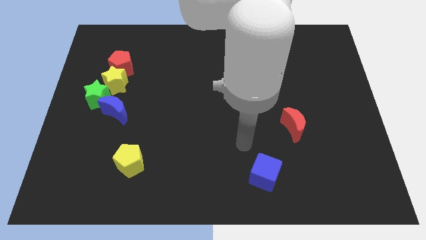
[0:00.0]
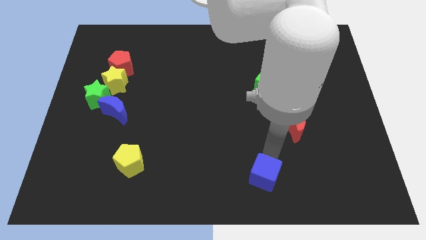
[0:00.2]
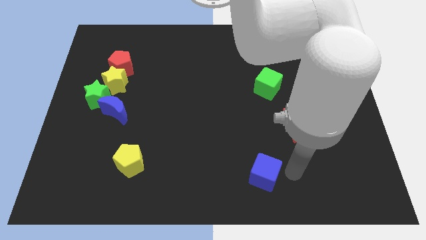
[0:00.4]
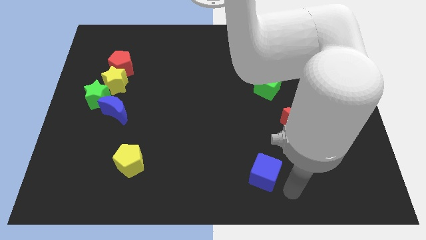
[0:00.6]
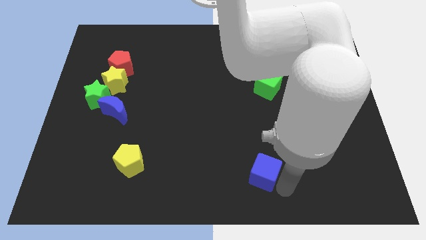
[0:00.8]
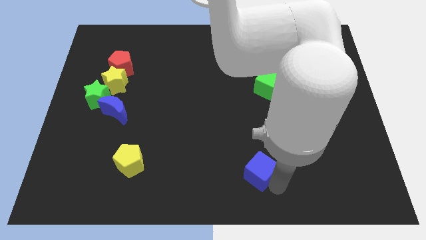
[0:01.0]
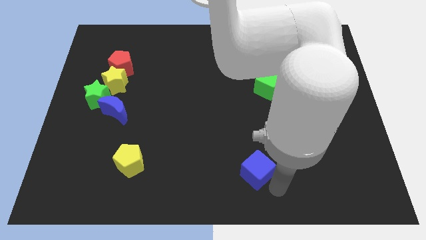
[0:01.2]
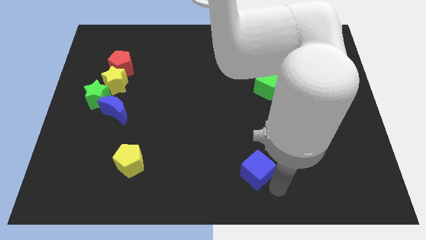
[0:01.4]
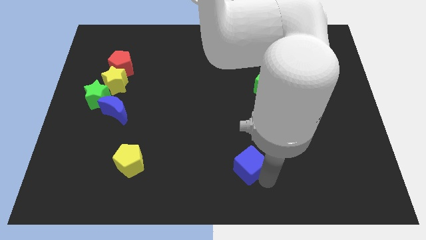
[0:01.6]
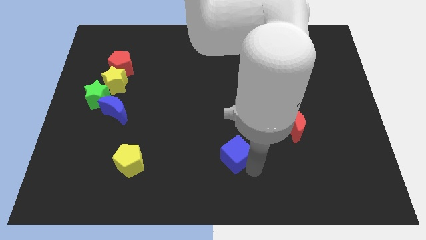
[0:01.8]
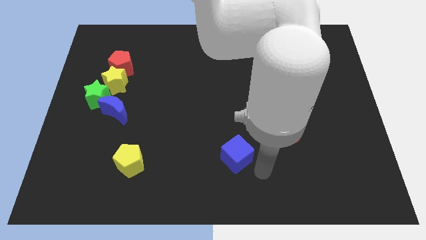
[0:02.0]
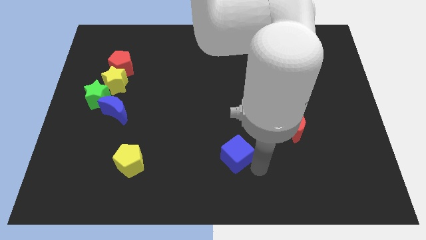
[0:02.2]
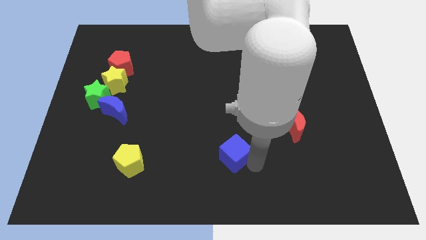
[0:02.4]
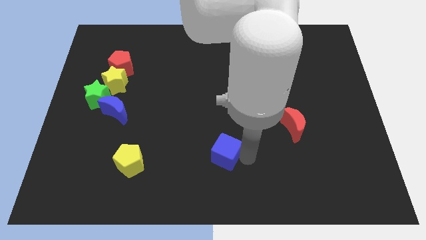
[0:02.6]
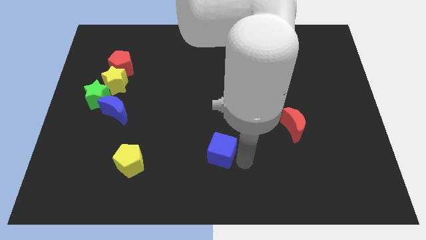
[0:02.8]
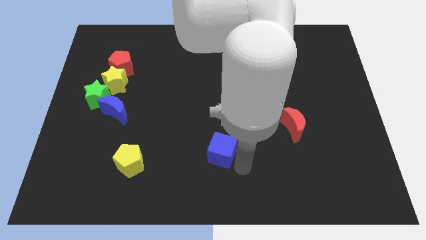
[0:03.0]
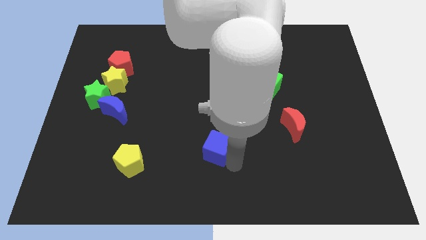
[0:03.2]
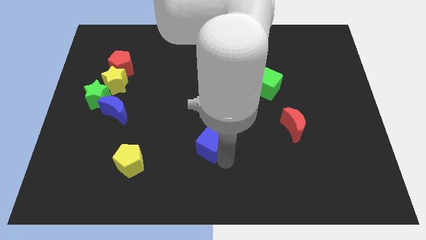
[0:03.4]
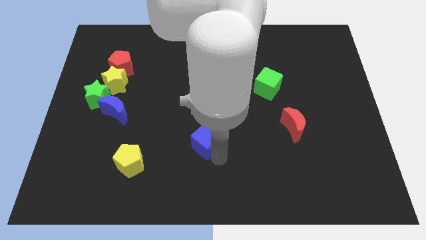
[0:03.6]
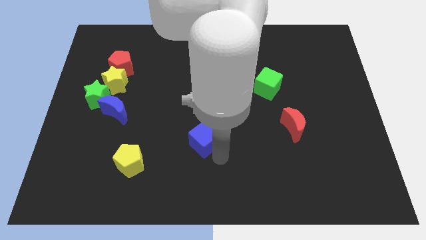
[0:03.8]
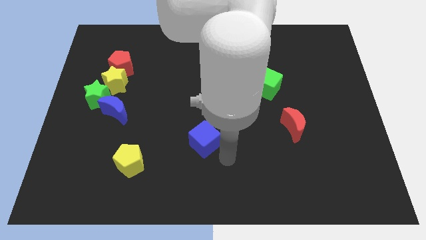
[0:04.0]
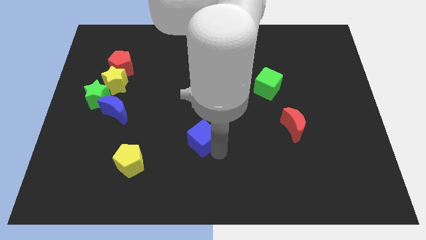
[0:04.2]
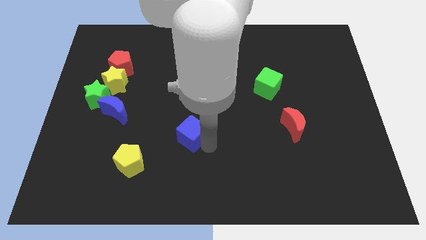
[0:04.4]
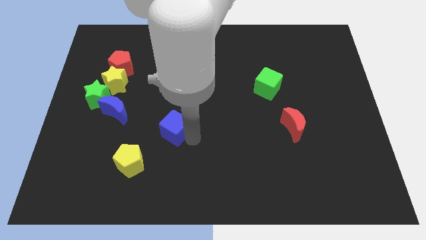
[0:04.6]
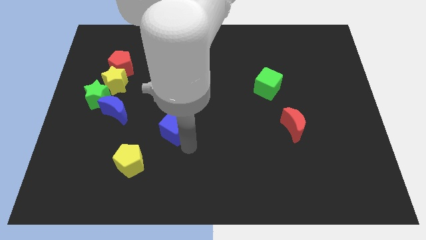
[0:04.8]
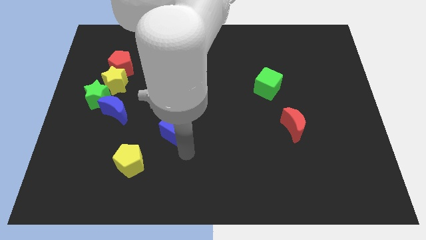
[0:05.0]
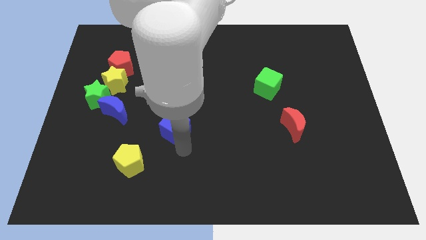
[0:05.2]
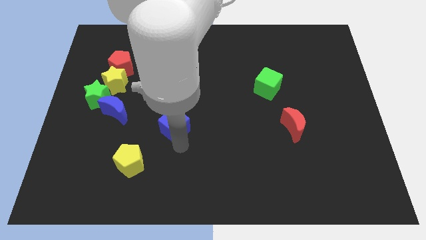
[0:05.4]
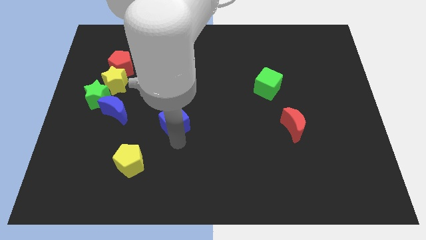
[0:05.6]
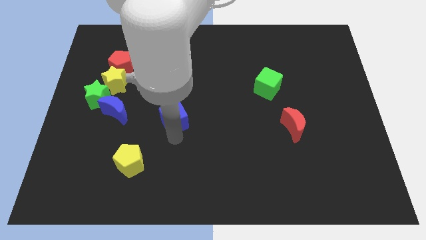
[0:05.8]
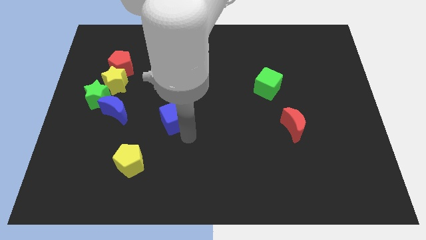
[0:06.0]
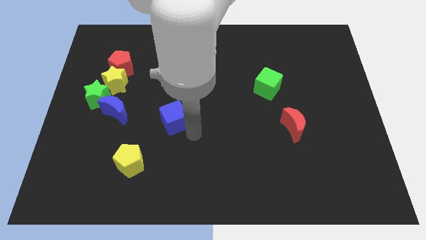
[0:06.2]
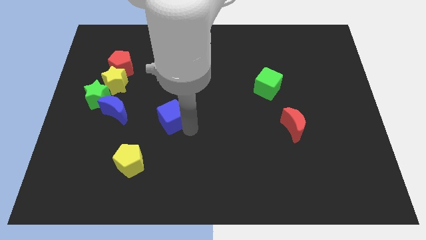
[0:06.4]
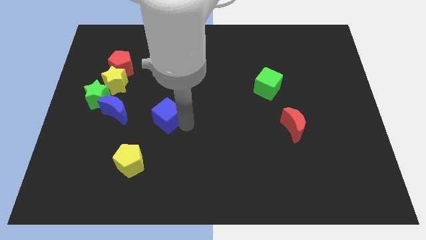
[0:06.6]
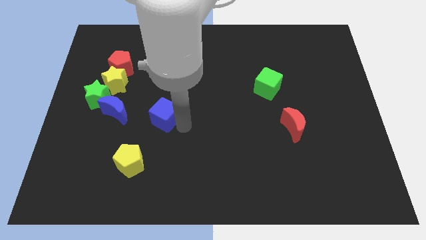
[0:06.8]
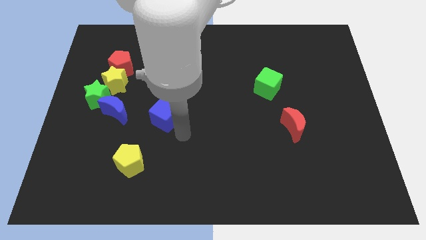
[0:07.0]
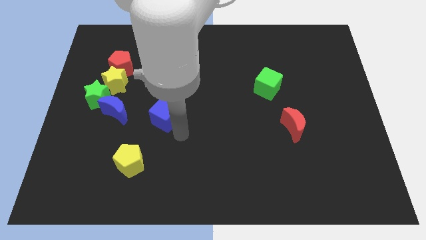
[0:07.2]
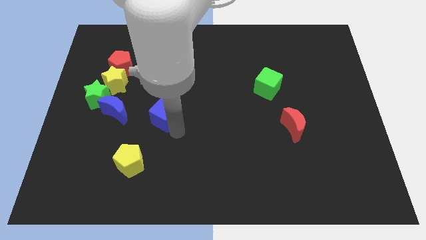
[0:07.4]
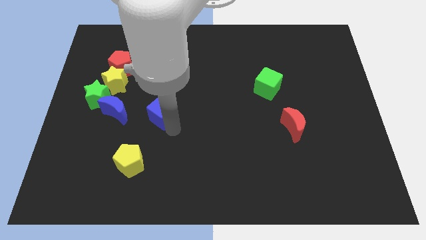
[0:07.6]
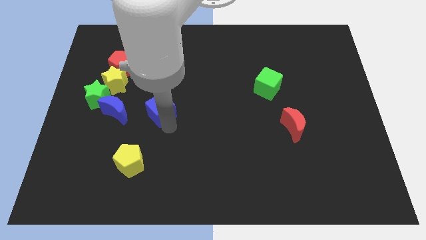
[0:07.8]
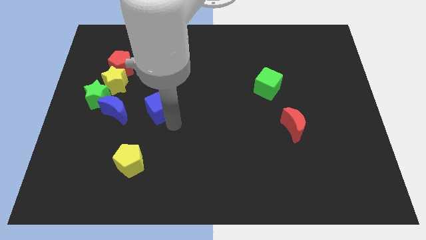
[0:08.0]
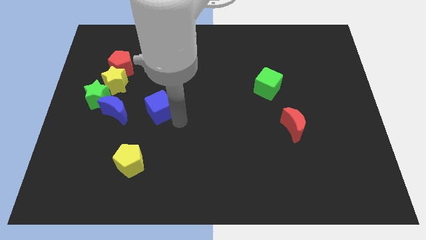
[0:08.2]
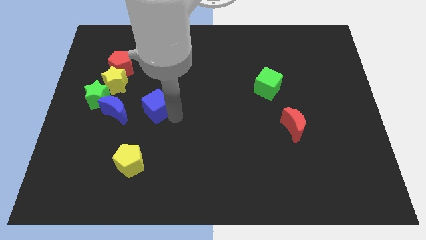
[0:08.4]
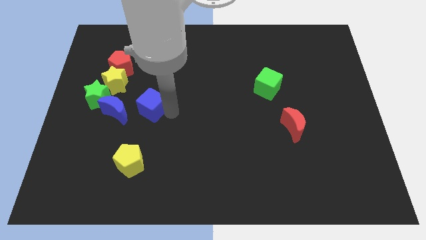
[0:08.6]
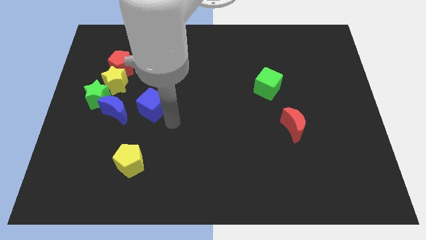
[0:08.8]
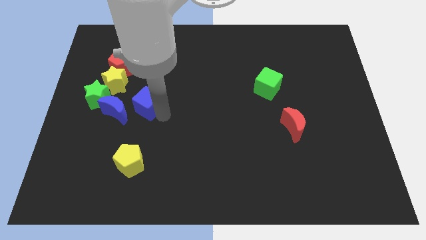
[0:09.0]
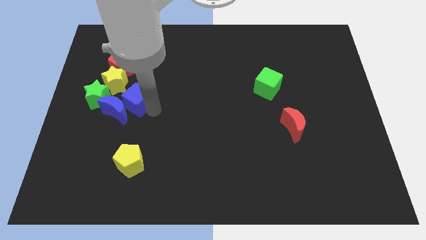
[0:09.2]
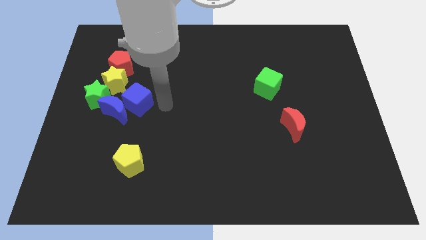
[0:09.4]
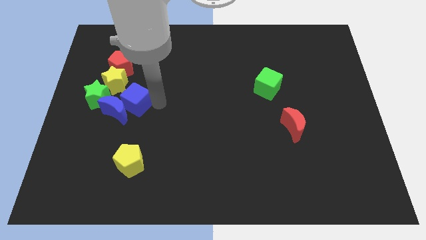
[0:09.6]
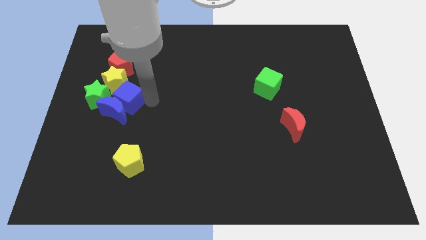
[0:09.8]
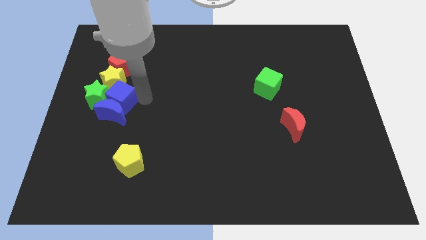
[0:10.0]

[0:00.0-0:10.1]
push the blue cube towards the green star

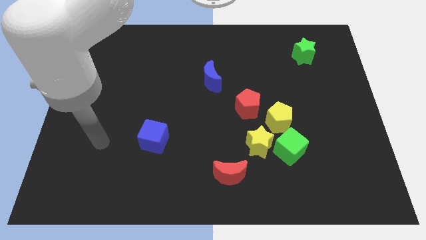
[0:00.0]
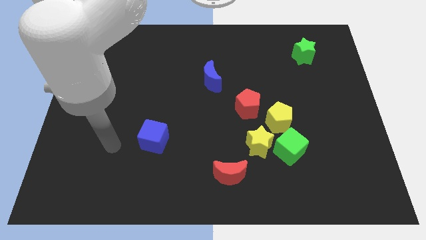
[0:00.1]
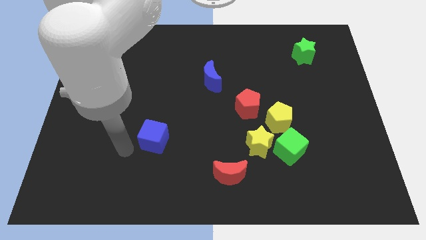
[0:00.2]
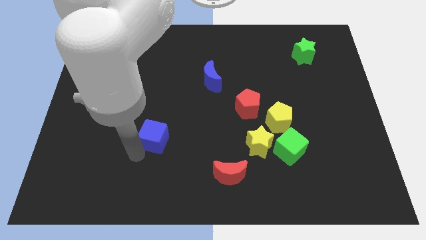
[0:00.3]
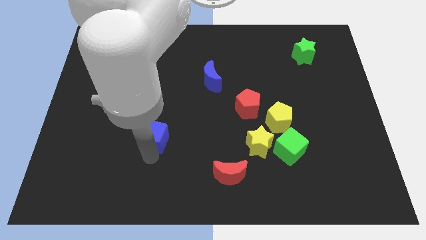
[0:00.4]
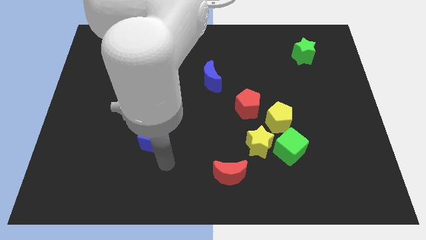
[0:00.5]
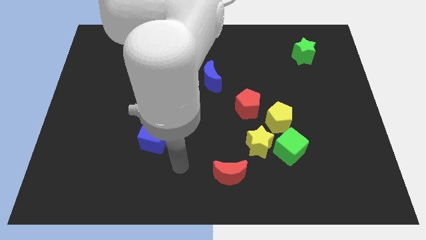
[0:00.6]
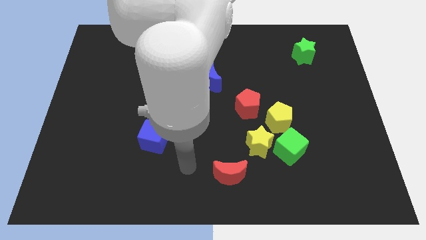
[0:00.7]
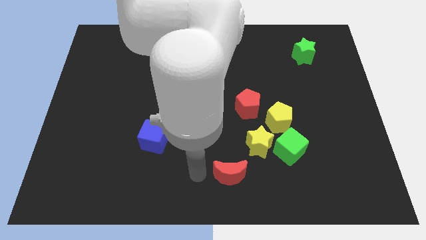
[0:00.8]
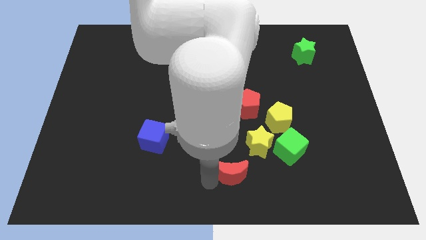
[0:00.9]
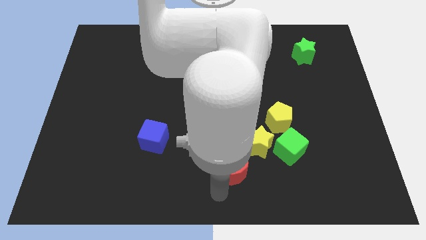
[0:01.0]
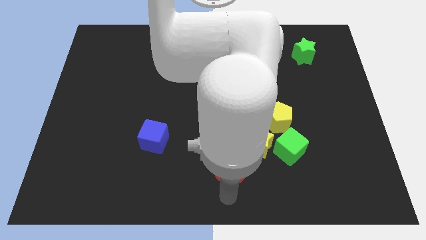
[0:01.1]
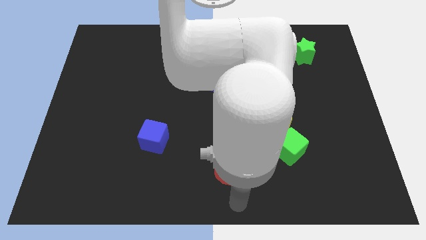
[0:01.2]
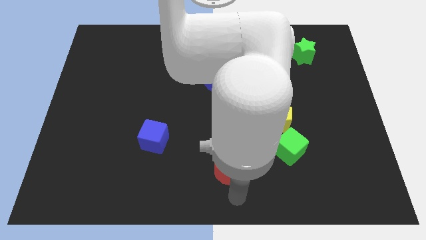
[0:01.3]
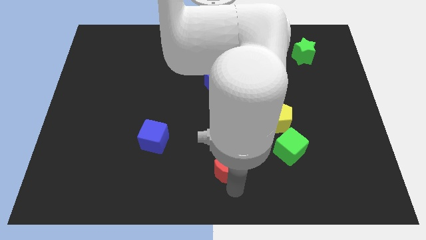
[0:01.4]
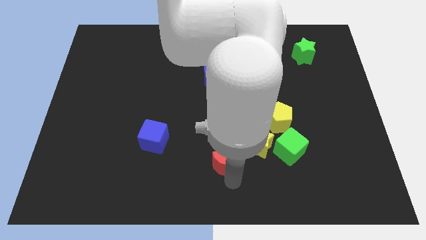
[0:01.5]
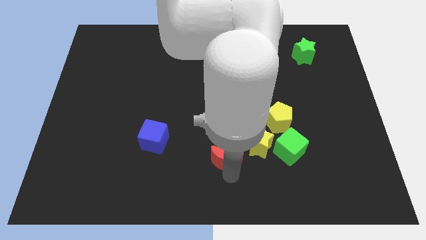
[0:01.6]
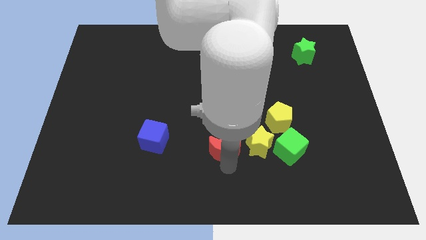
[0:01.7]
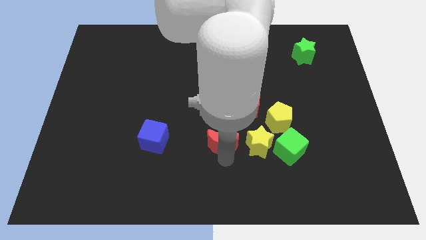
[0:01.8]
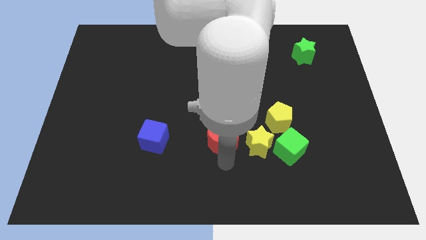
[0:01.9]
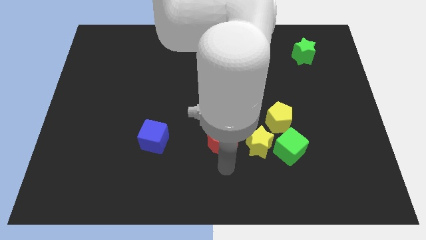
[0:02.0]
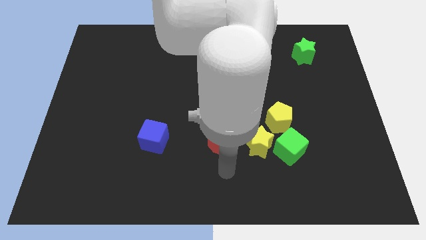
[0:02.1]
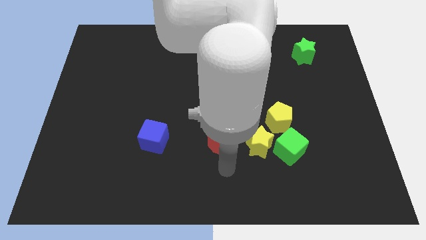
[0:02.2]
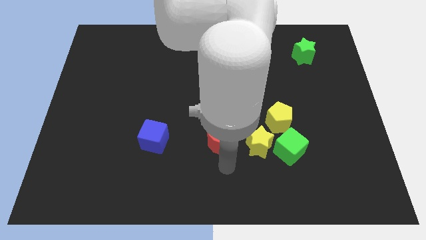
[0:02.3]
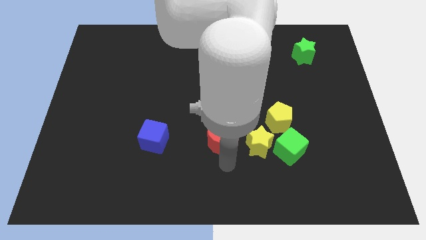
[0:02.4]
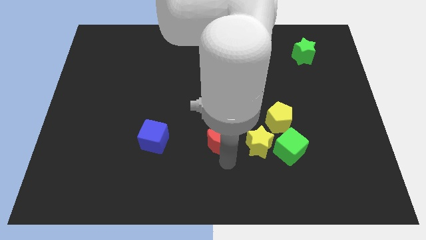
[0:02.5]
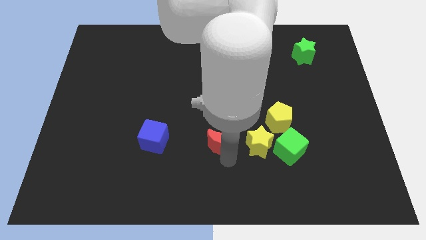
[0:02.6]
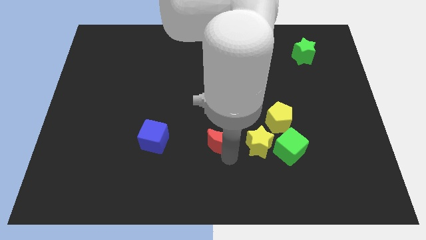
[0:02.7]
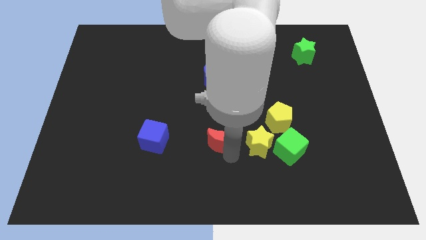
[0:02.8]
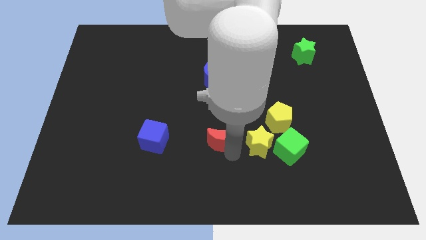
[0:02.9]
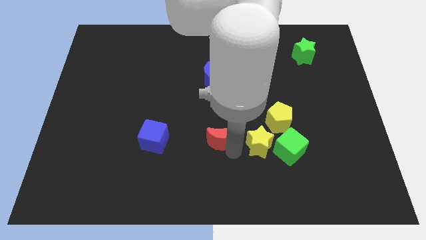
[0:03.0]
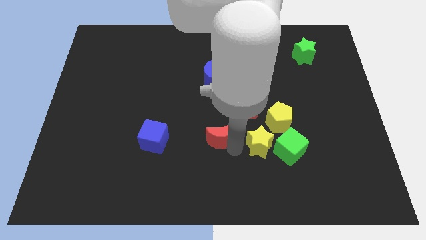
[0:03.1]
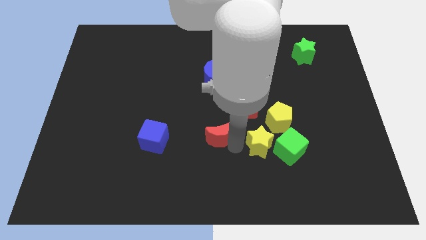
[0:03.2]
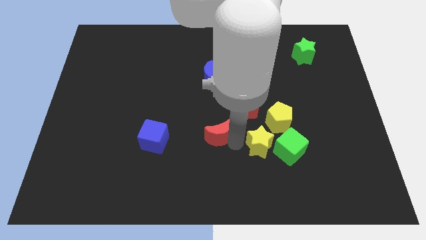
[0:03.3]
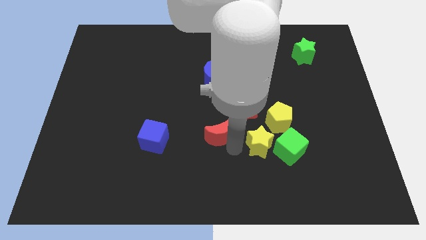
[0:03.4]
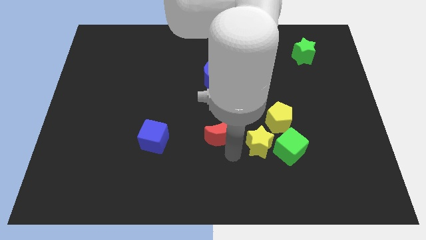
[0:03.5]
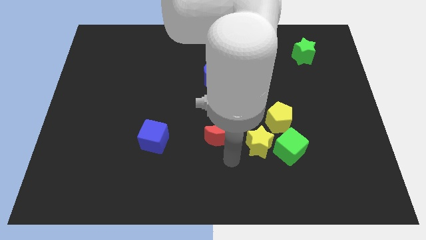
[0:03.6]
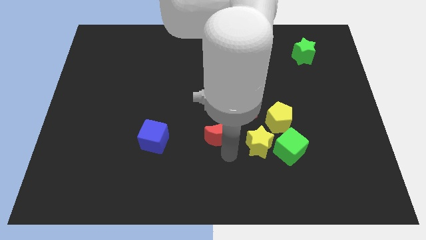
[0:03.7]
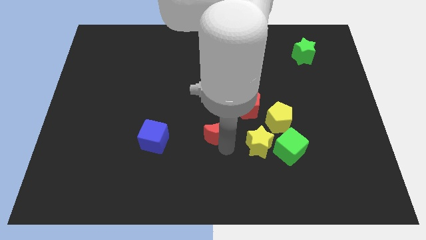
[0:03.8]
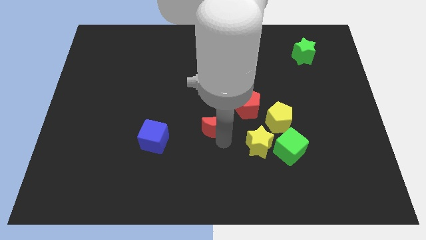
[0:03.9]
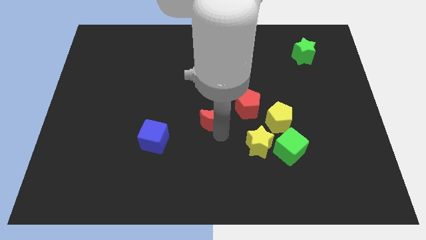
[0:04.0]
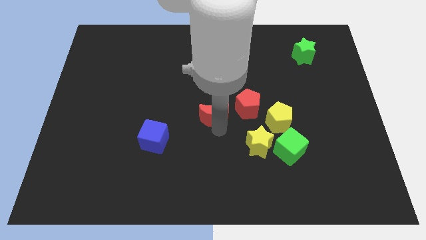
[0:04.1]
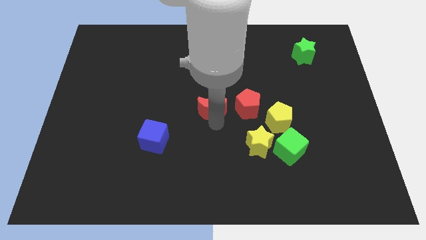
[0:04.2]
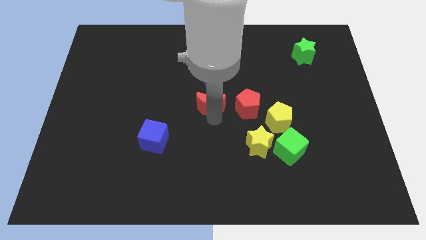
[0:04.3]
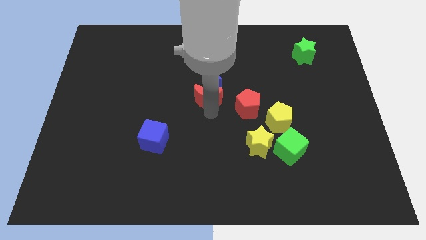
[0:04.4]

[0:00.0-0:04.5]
move the red moon towards the blue moon
